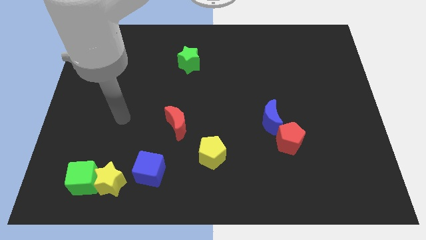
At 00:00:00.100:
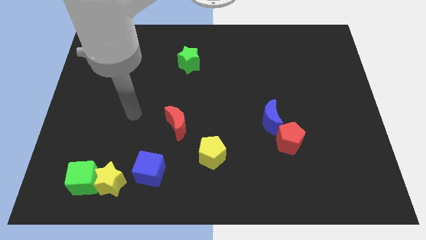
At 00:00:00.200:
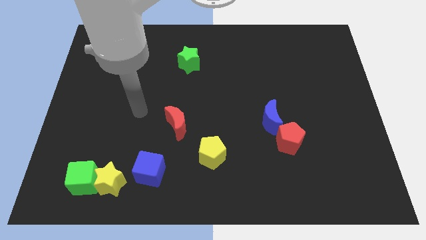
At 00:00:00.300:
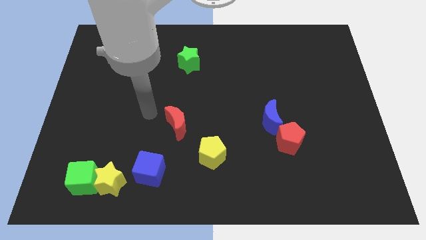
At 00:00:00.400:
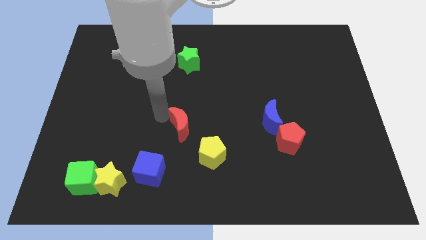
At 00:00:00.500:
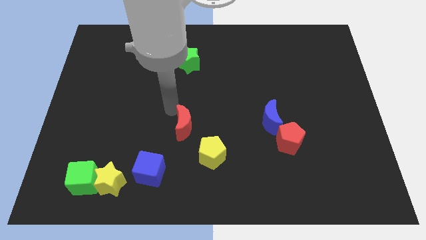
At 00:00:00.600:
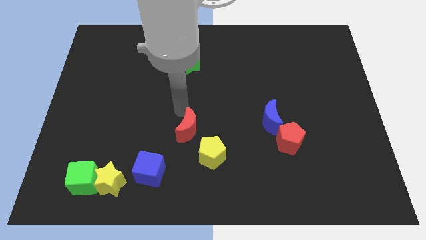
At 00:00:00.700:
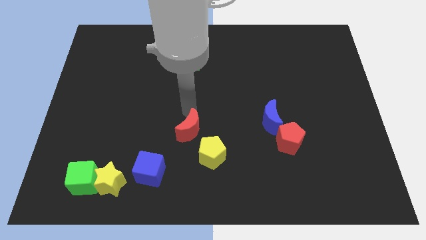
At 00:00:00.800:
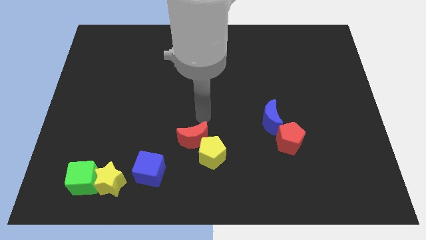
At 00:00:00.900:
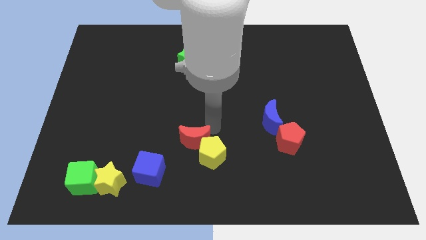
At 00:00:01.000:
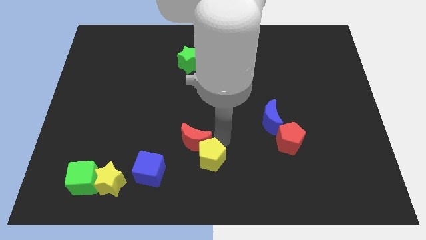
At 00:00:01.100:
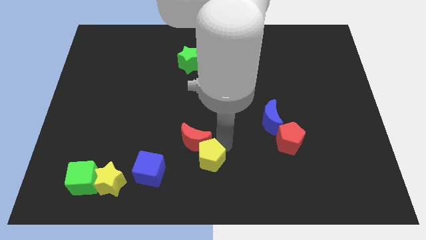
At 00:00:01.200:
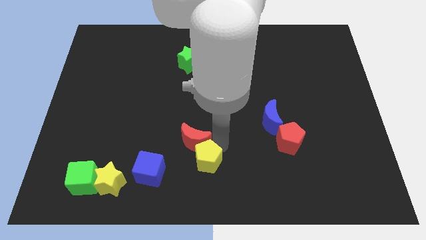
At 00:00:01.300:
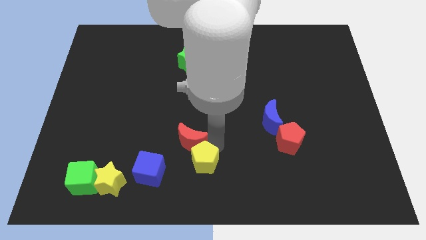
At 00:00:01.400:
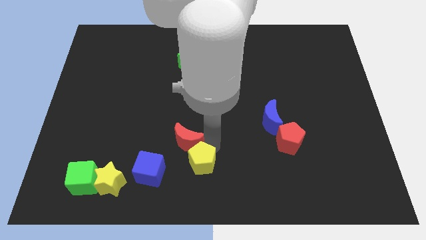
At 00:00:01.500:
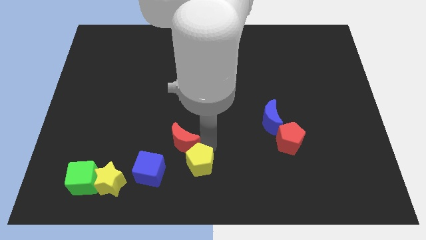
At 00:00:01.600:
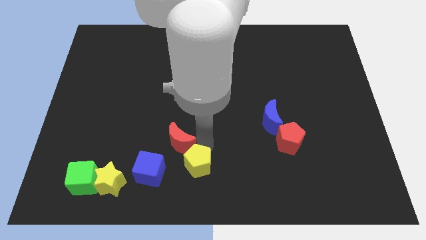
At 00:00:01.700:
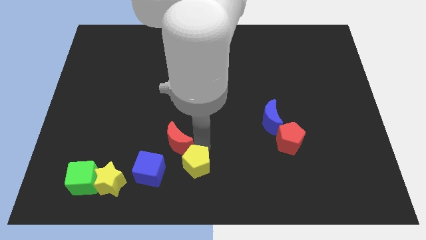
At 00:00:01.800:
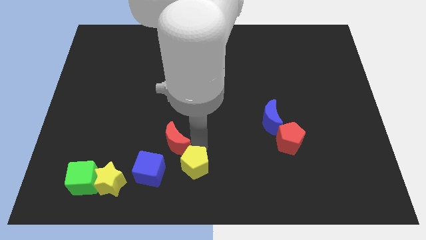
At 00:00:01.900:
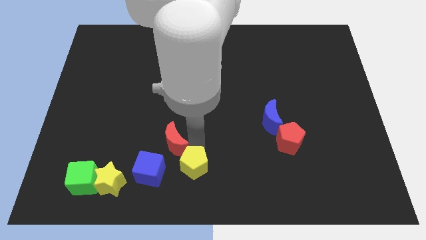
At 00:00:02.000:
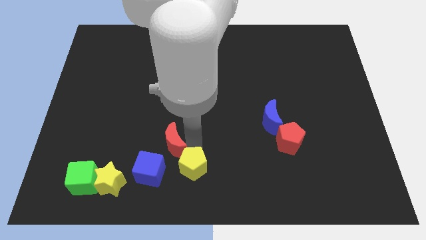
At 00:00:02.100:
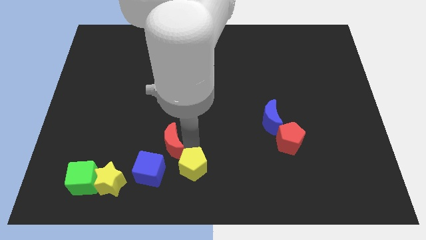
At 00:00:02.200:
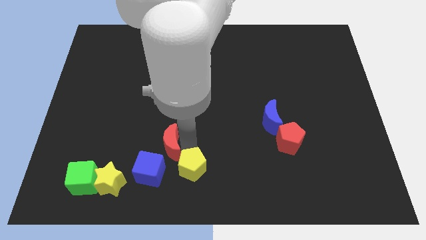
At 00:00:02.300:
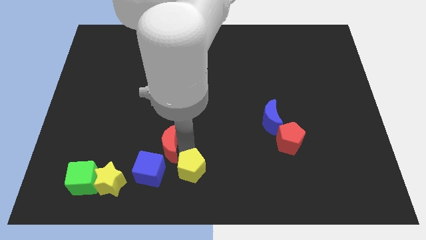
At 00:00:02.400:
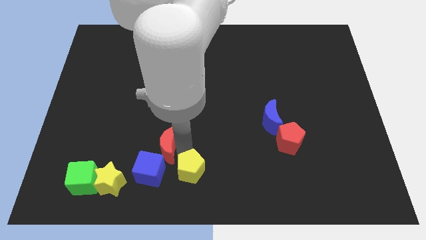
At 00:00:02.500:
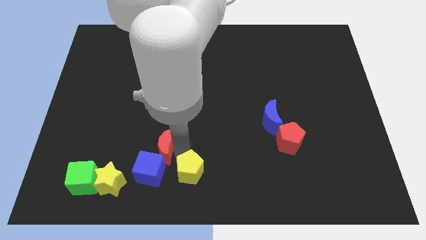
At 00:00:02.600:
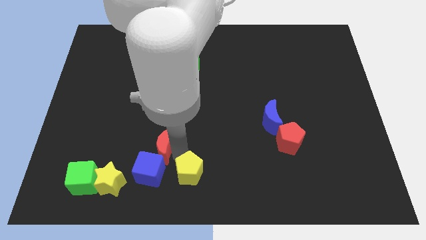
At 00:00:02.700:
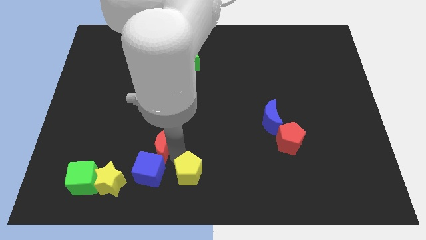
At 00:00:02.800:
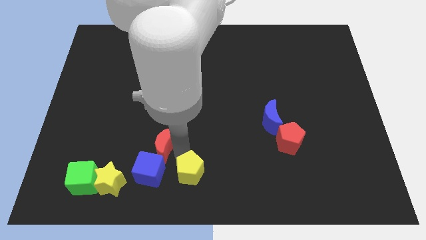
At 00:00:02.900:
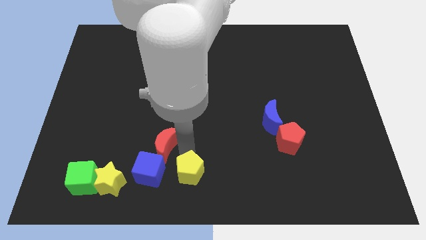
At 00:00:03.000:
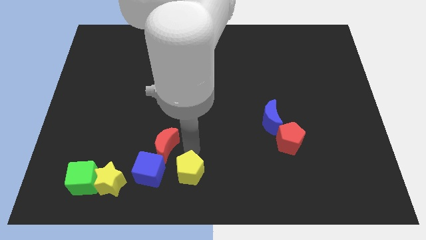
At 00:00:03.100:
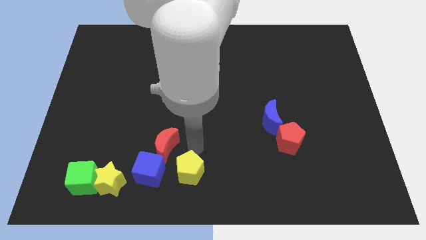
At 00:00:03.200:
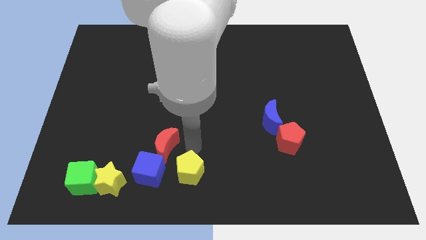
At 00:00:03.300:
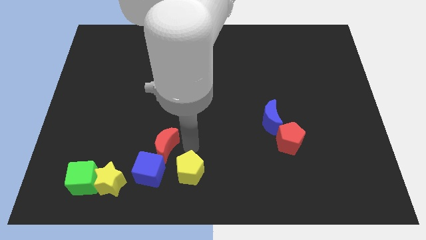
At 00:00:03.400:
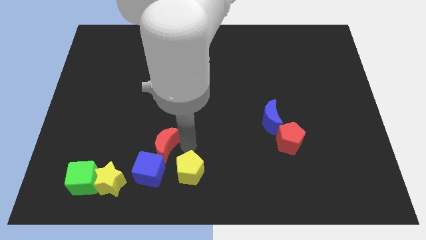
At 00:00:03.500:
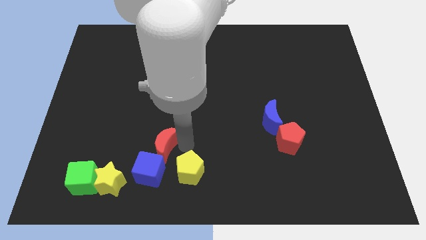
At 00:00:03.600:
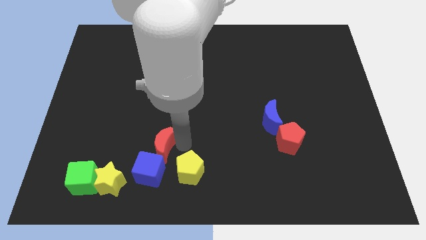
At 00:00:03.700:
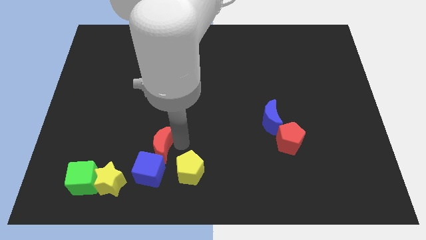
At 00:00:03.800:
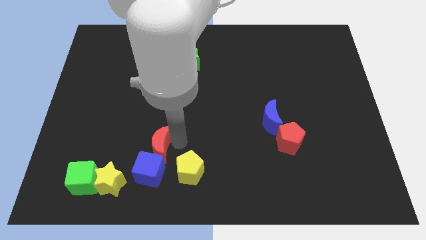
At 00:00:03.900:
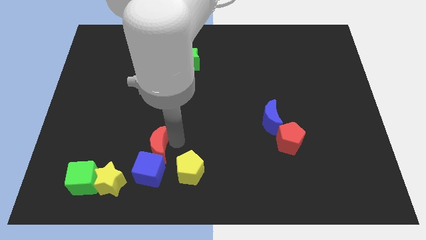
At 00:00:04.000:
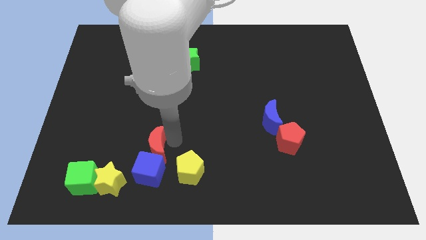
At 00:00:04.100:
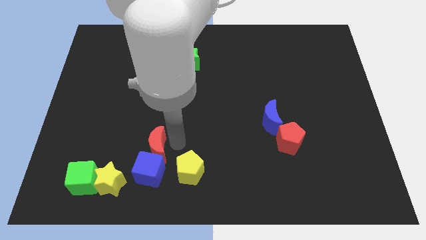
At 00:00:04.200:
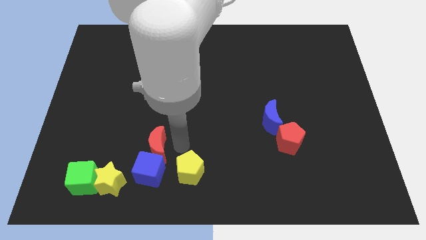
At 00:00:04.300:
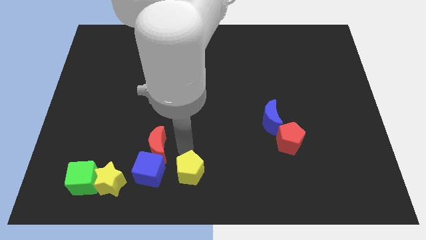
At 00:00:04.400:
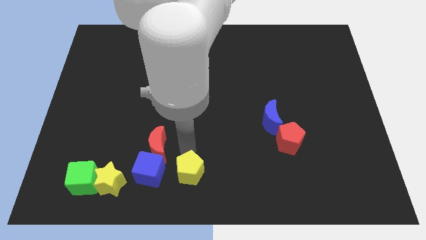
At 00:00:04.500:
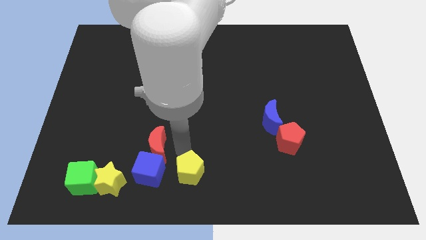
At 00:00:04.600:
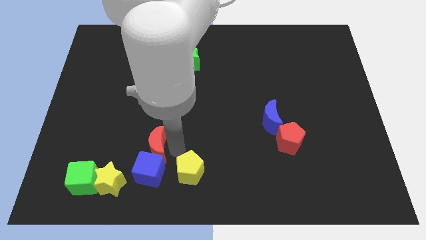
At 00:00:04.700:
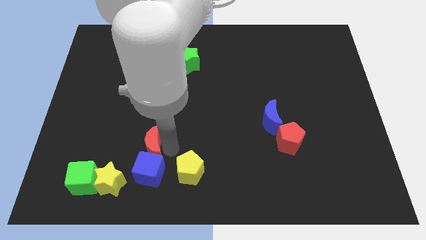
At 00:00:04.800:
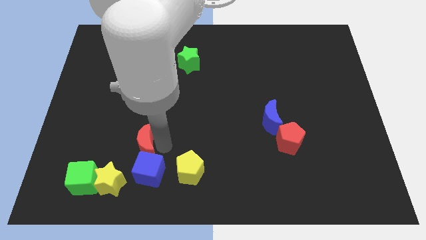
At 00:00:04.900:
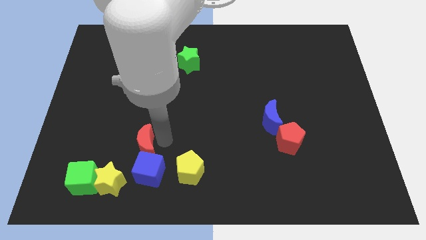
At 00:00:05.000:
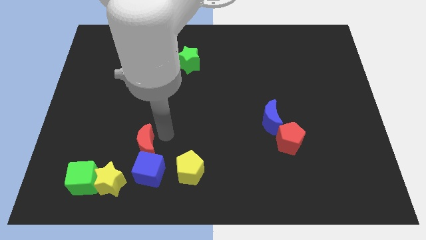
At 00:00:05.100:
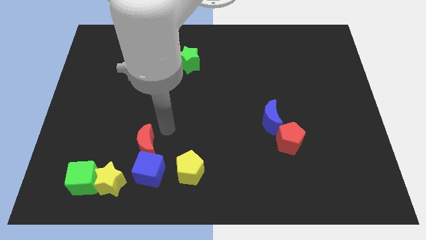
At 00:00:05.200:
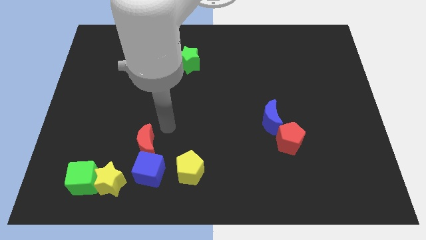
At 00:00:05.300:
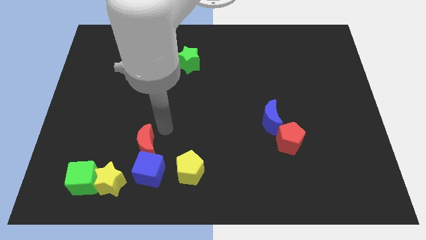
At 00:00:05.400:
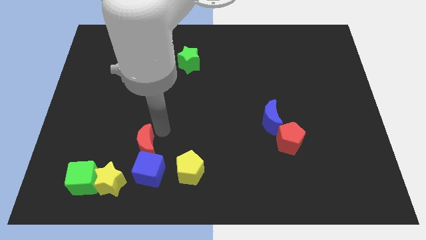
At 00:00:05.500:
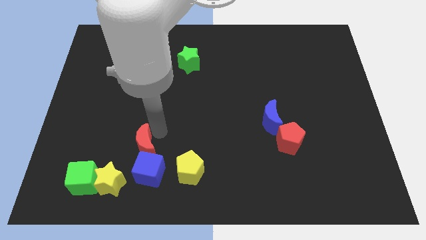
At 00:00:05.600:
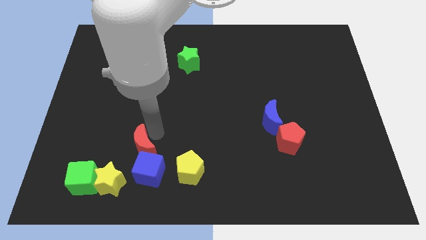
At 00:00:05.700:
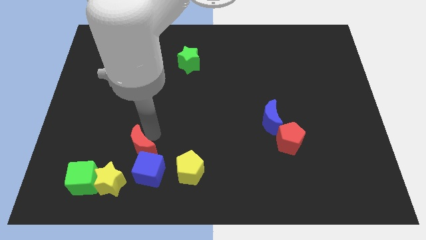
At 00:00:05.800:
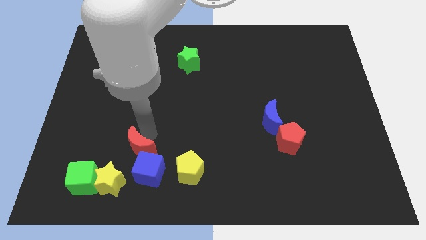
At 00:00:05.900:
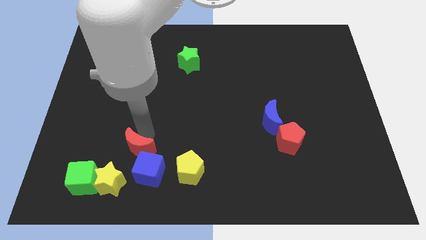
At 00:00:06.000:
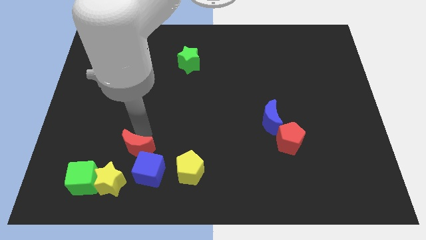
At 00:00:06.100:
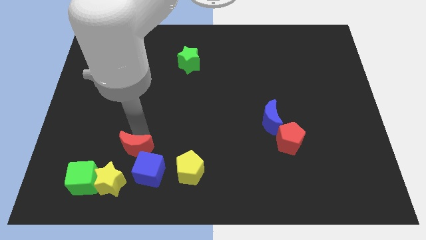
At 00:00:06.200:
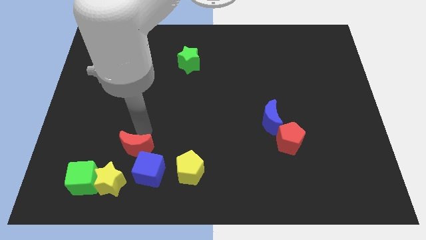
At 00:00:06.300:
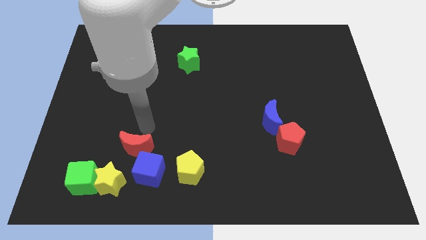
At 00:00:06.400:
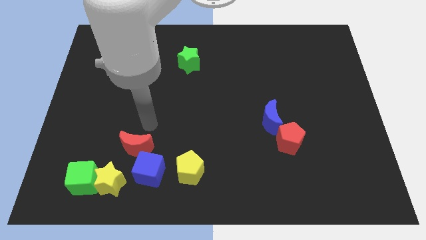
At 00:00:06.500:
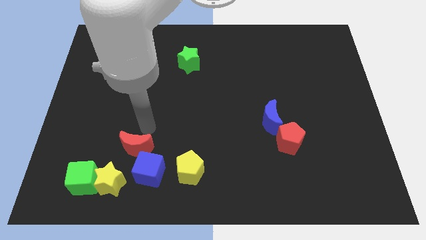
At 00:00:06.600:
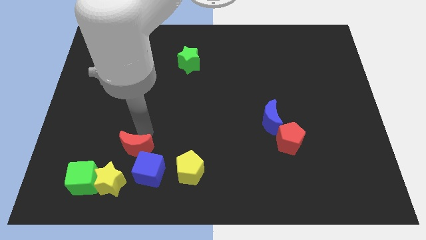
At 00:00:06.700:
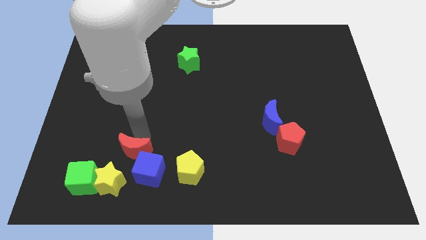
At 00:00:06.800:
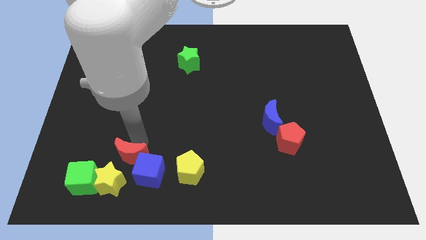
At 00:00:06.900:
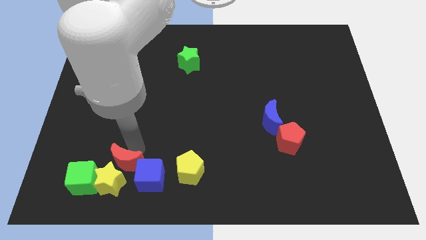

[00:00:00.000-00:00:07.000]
move the red moon close to the yellow star

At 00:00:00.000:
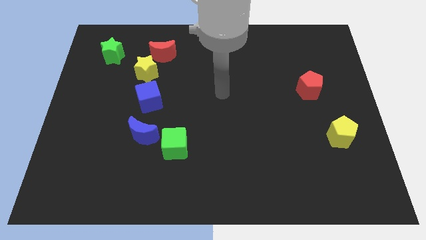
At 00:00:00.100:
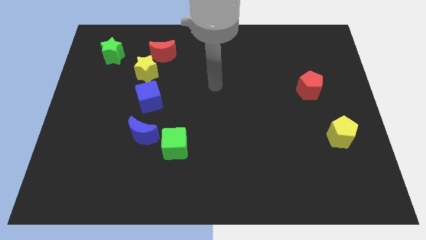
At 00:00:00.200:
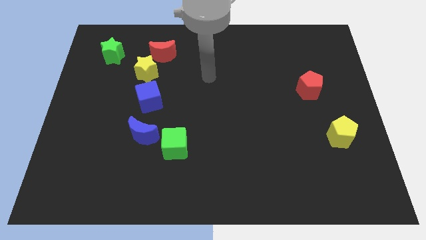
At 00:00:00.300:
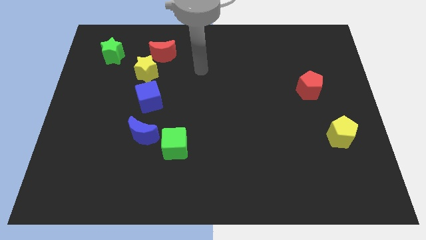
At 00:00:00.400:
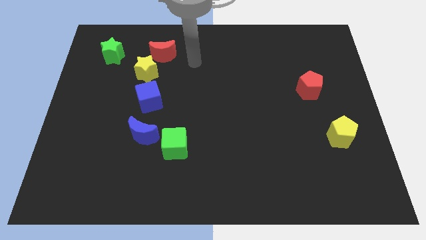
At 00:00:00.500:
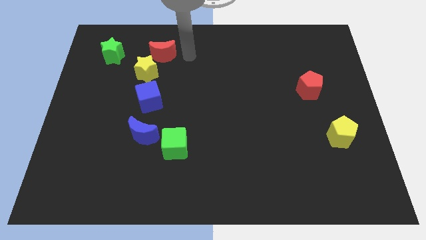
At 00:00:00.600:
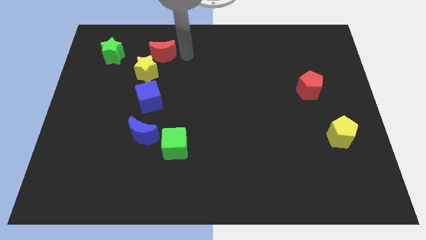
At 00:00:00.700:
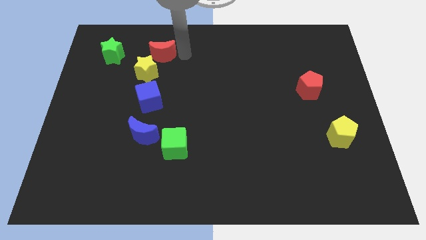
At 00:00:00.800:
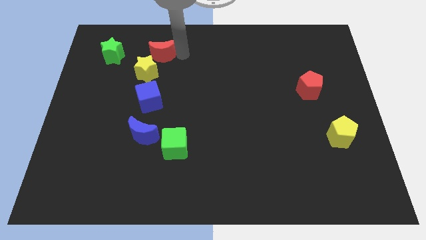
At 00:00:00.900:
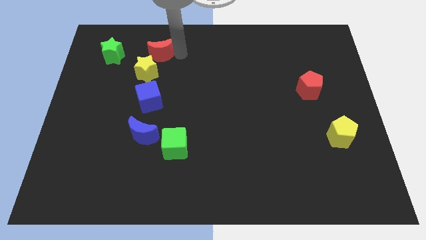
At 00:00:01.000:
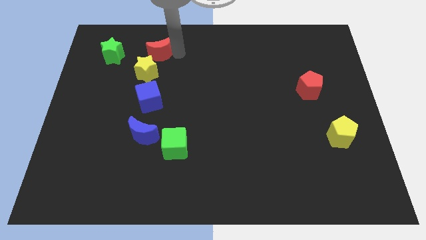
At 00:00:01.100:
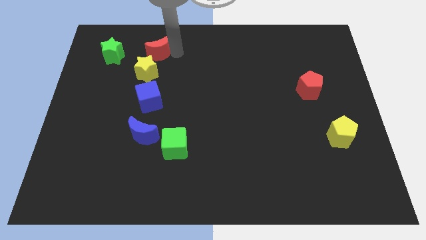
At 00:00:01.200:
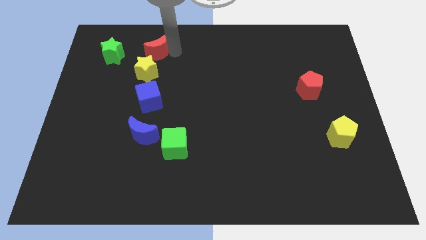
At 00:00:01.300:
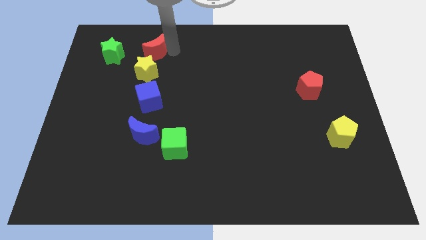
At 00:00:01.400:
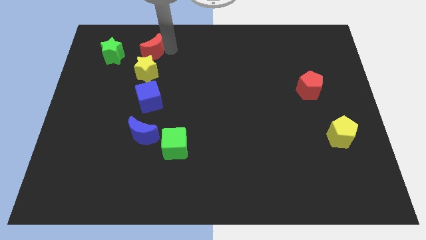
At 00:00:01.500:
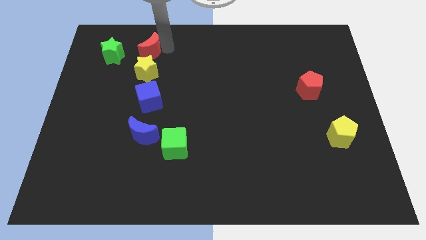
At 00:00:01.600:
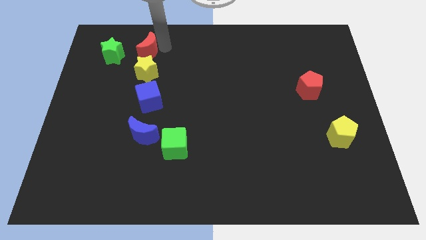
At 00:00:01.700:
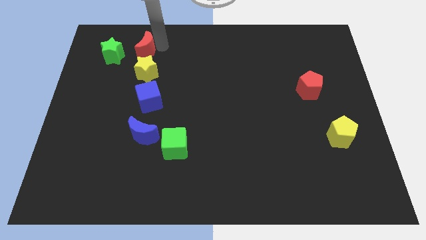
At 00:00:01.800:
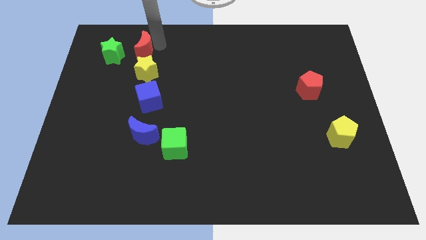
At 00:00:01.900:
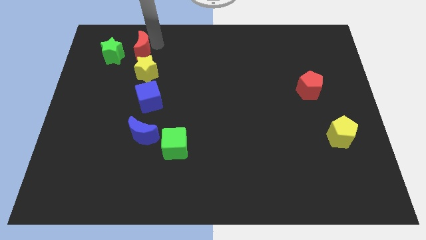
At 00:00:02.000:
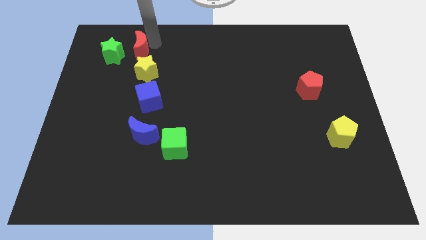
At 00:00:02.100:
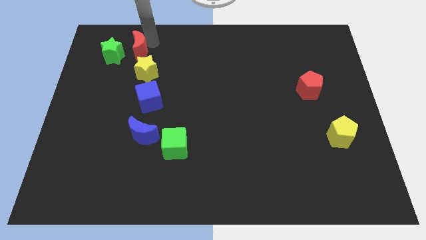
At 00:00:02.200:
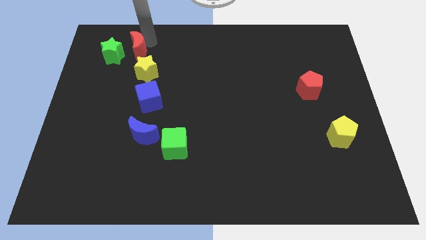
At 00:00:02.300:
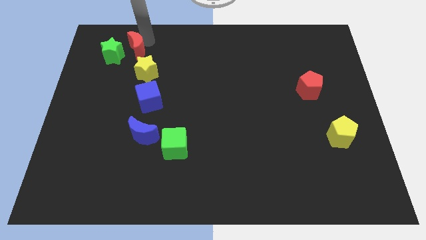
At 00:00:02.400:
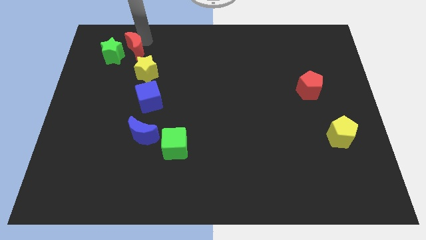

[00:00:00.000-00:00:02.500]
move the red moon to the green star
